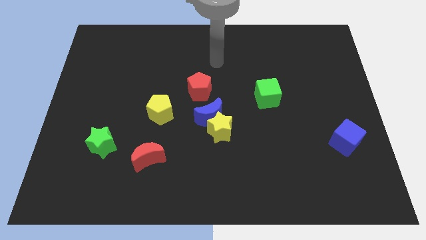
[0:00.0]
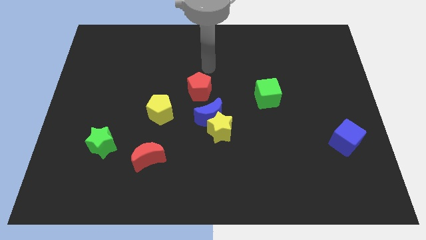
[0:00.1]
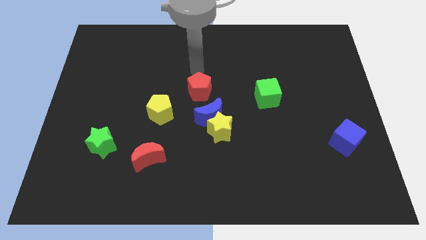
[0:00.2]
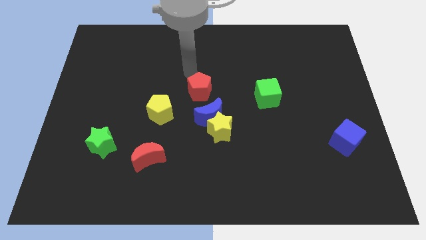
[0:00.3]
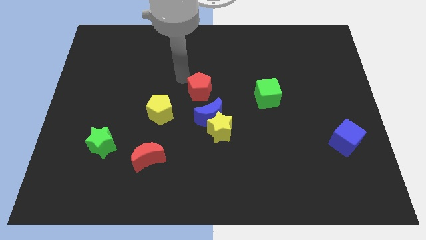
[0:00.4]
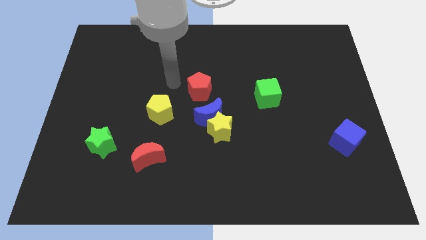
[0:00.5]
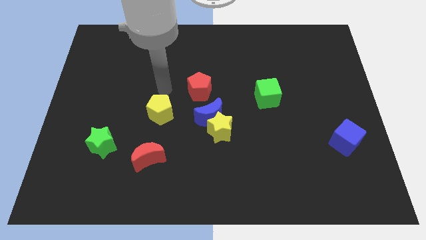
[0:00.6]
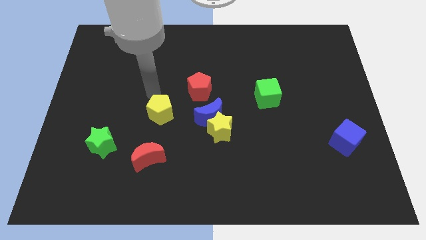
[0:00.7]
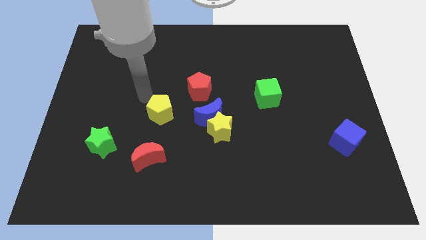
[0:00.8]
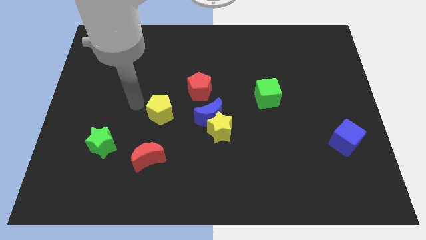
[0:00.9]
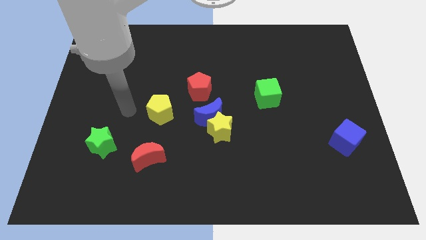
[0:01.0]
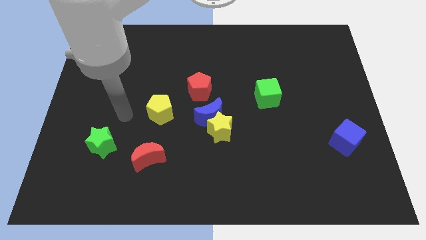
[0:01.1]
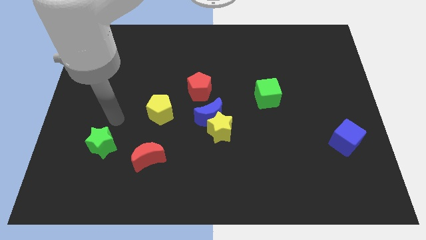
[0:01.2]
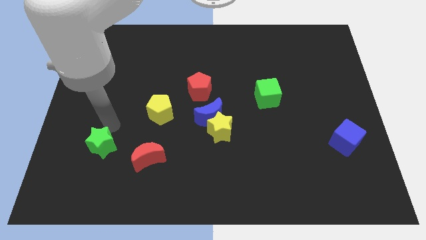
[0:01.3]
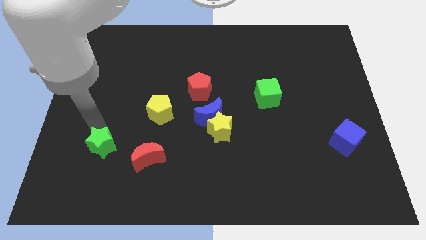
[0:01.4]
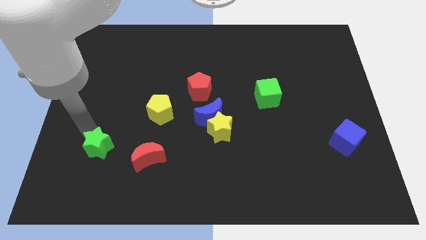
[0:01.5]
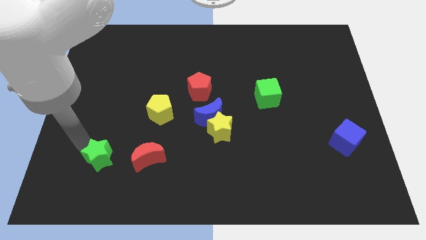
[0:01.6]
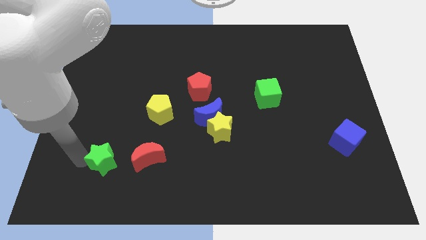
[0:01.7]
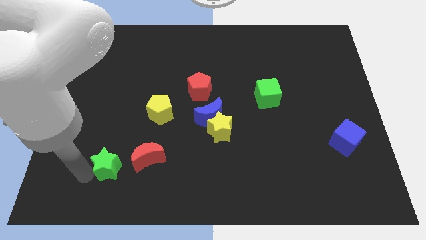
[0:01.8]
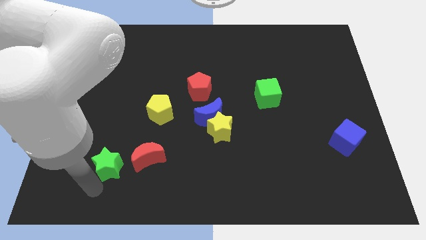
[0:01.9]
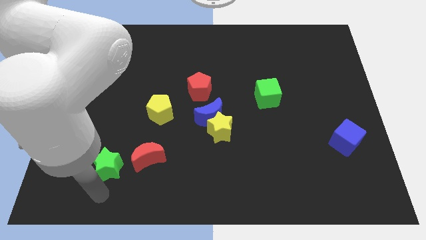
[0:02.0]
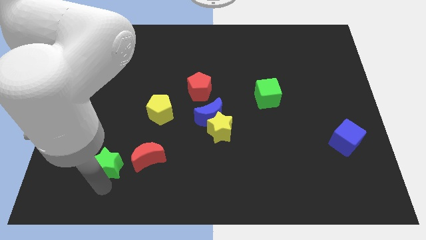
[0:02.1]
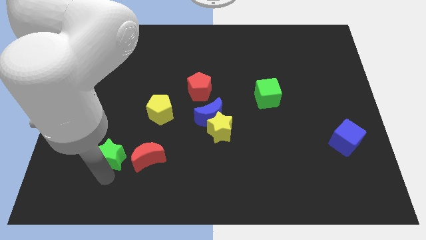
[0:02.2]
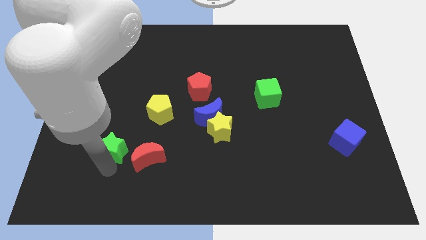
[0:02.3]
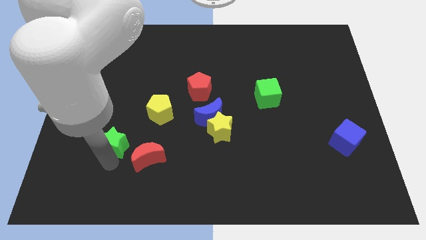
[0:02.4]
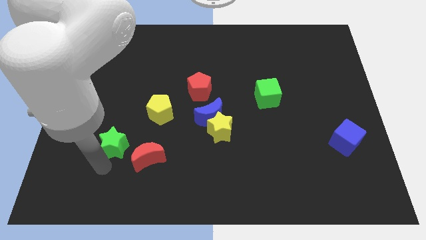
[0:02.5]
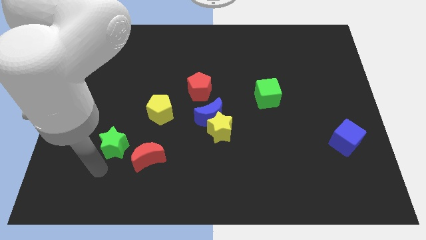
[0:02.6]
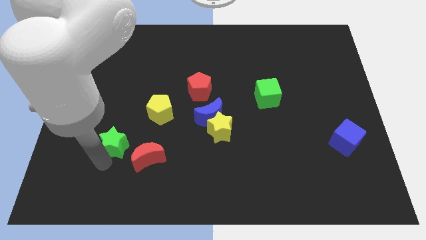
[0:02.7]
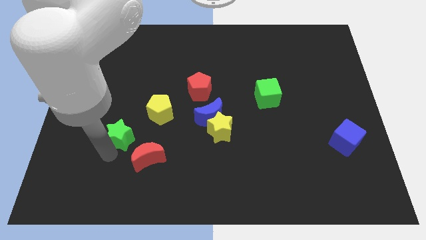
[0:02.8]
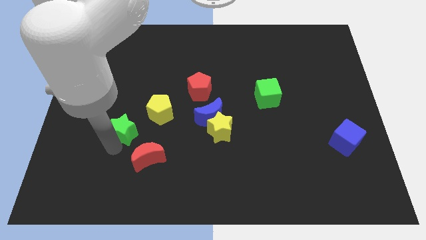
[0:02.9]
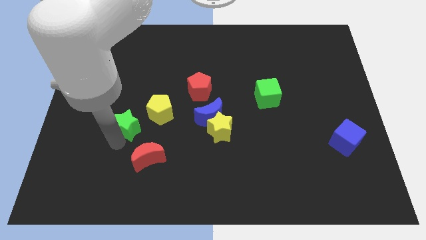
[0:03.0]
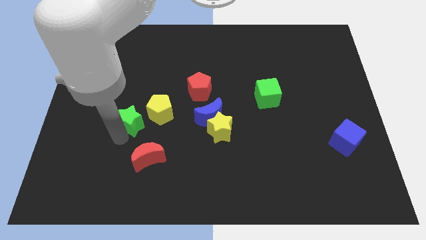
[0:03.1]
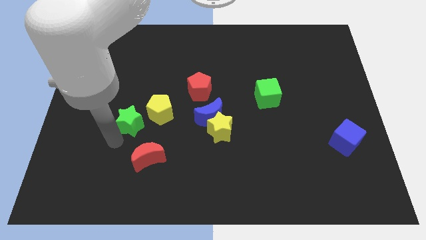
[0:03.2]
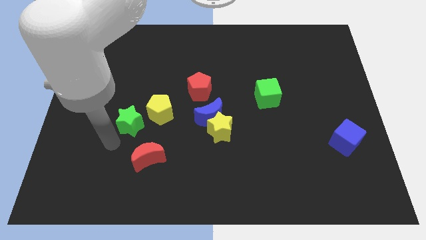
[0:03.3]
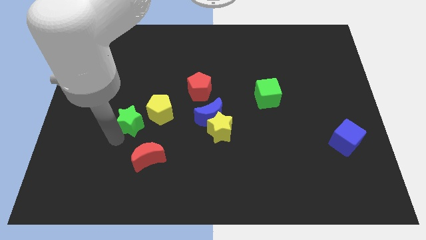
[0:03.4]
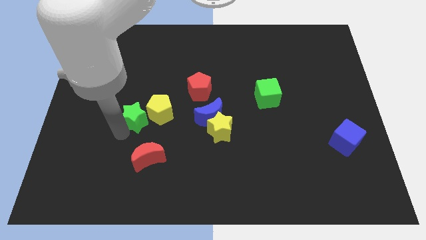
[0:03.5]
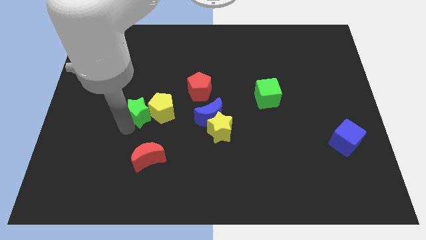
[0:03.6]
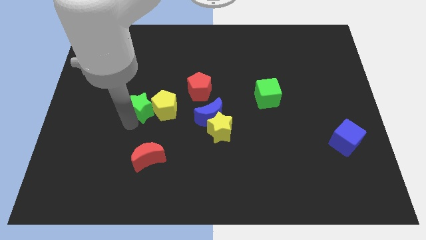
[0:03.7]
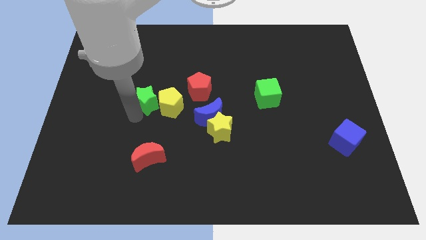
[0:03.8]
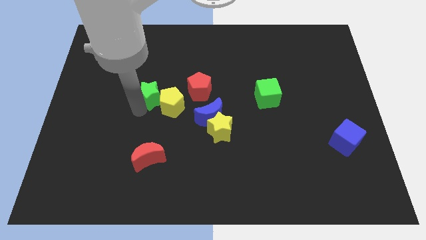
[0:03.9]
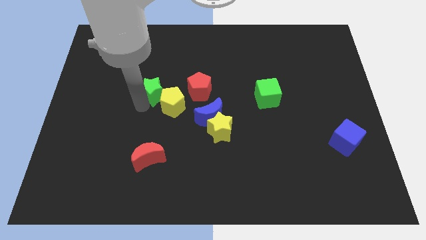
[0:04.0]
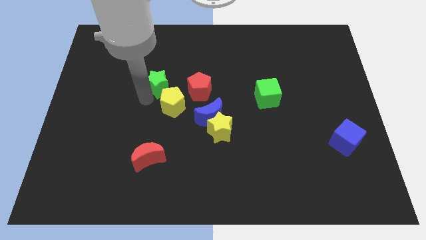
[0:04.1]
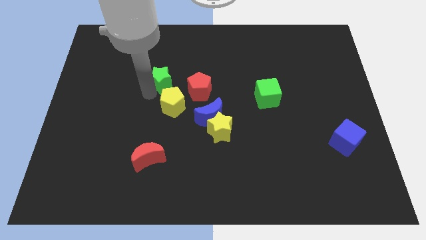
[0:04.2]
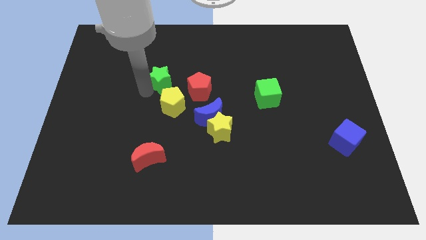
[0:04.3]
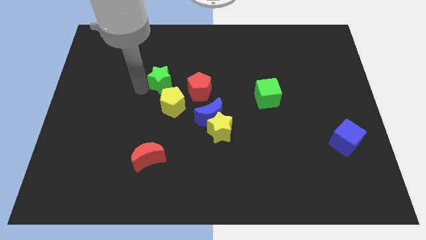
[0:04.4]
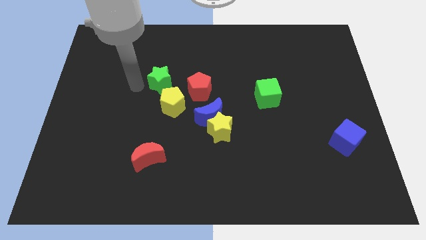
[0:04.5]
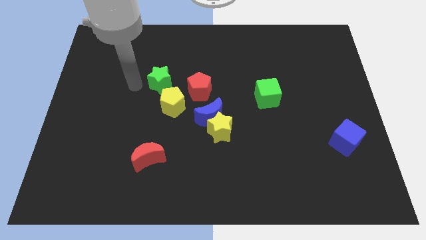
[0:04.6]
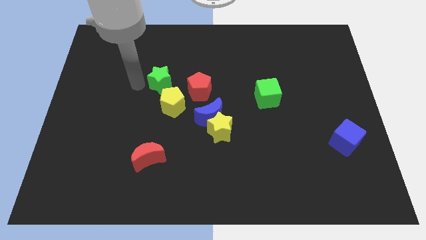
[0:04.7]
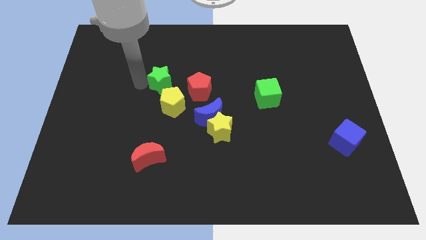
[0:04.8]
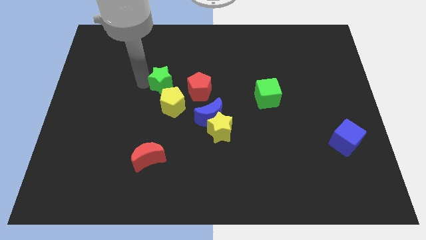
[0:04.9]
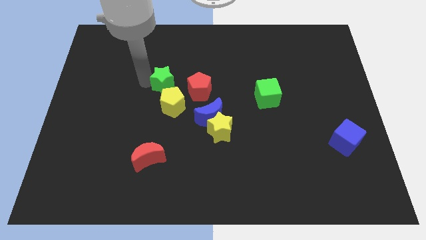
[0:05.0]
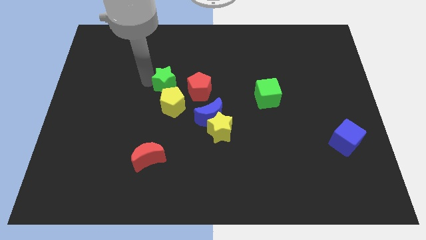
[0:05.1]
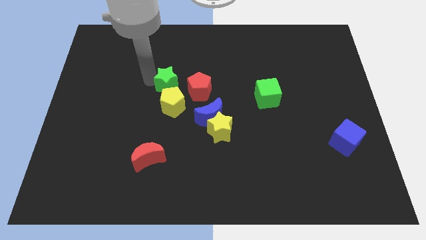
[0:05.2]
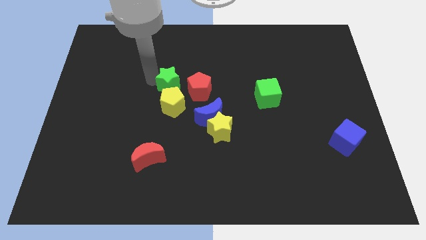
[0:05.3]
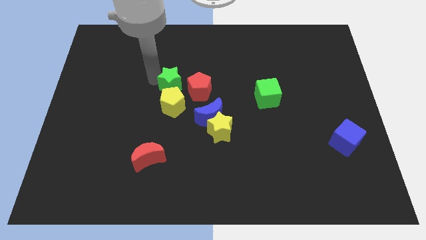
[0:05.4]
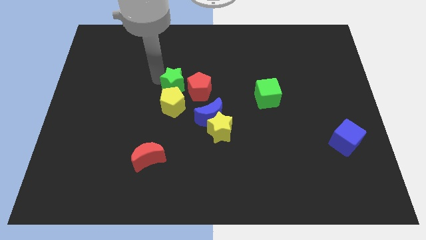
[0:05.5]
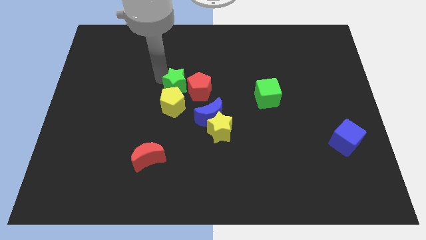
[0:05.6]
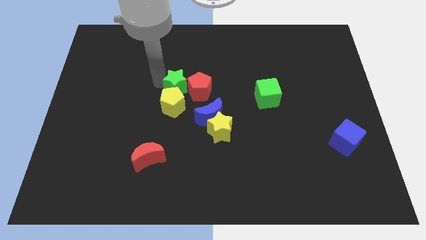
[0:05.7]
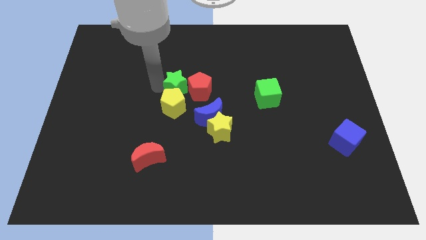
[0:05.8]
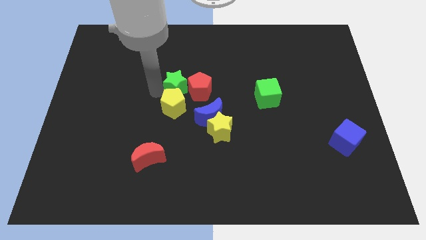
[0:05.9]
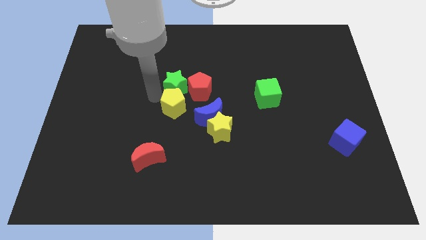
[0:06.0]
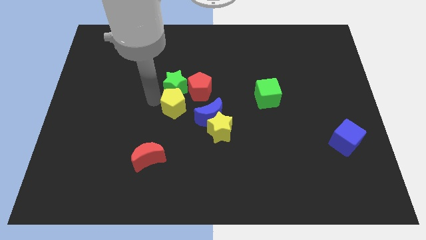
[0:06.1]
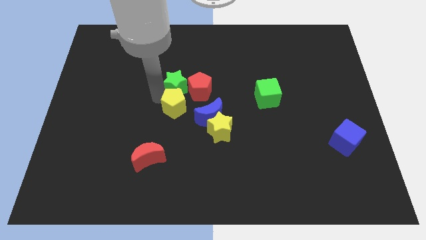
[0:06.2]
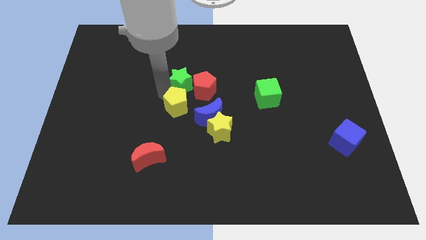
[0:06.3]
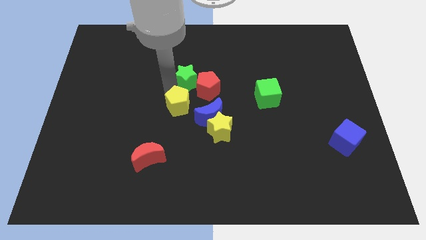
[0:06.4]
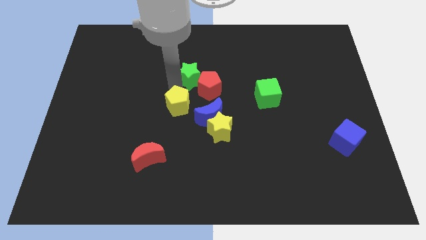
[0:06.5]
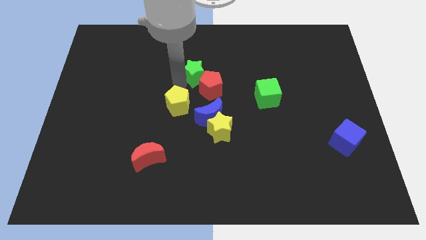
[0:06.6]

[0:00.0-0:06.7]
put the green star to the top of the blue moon
